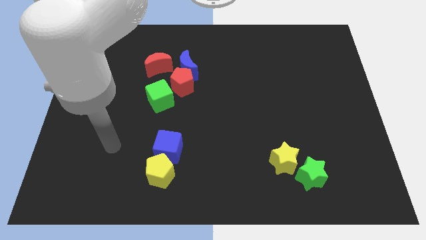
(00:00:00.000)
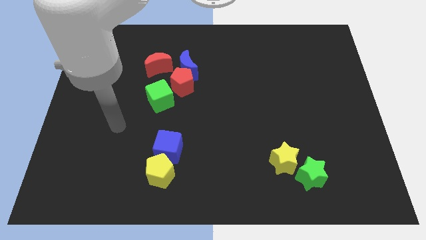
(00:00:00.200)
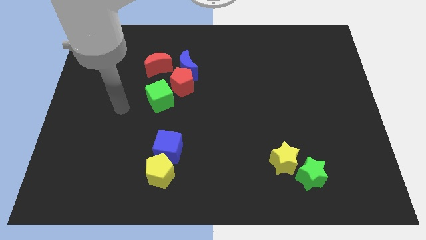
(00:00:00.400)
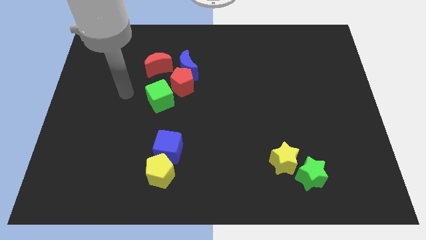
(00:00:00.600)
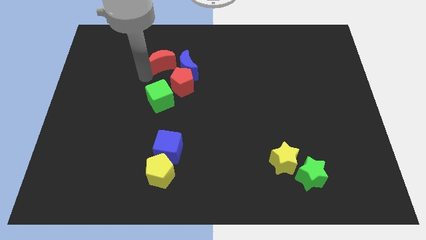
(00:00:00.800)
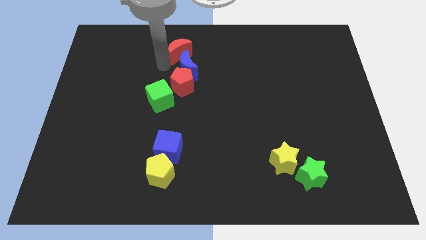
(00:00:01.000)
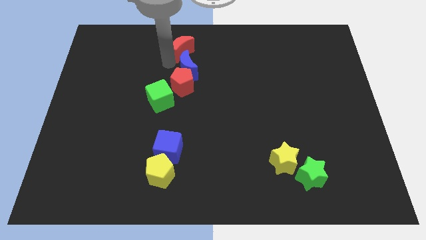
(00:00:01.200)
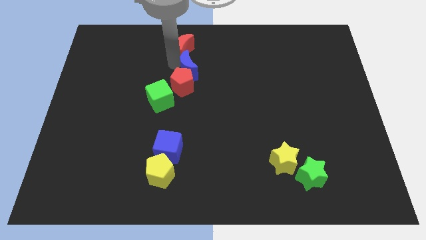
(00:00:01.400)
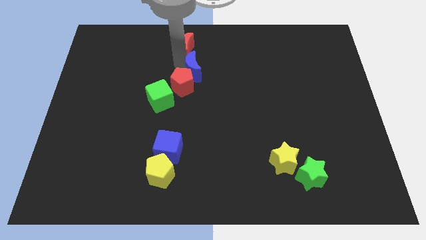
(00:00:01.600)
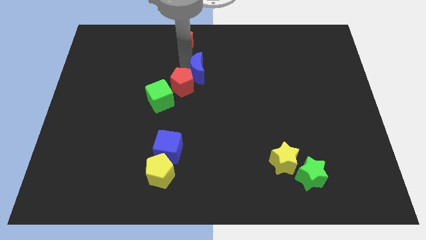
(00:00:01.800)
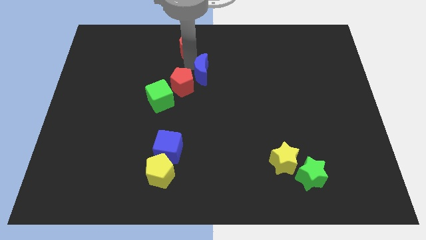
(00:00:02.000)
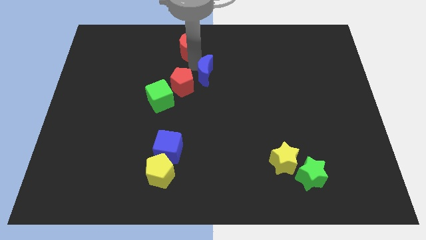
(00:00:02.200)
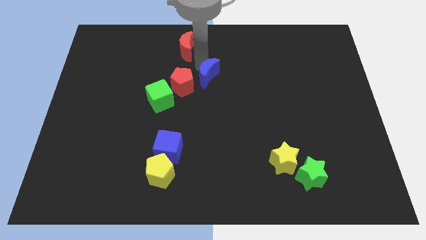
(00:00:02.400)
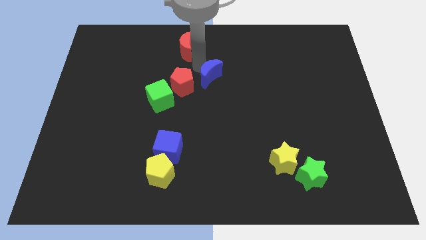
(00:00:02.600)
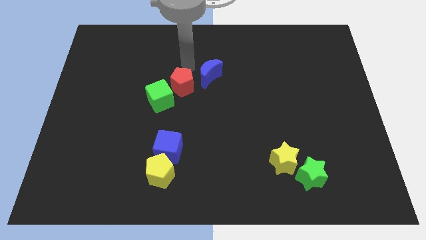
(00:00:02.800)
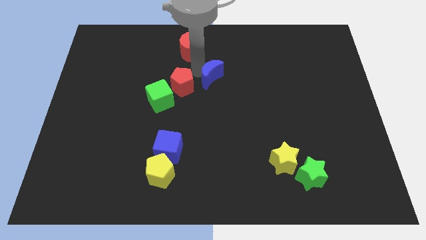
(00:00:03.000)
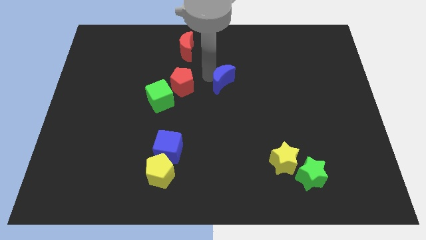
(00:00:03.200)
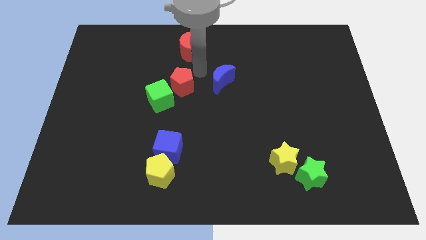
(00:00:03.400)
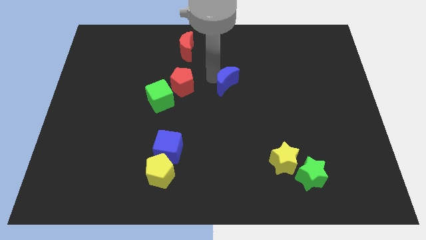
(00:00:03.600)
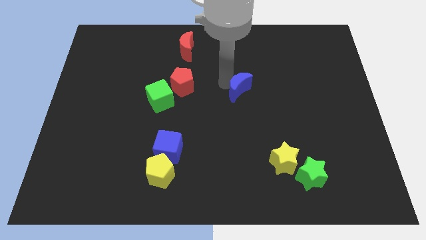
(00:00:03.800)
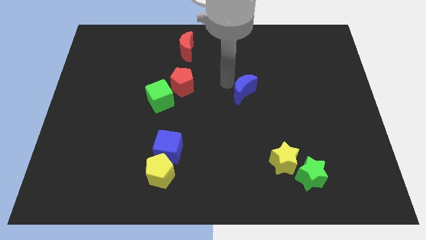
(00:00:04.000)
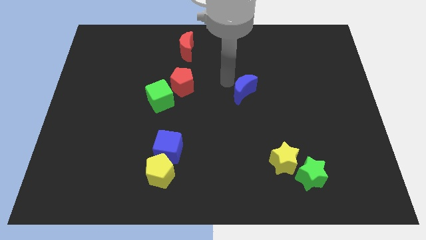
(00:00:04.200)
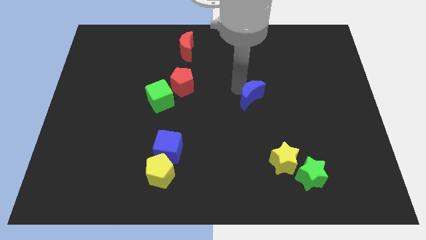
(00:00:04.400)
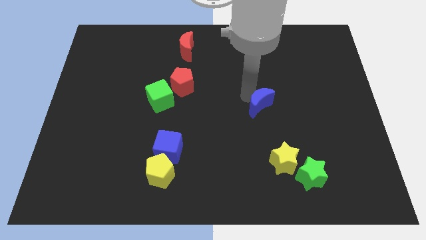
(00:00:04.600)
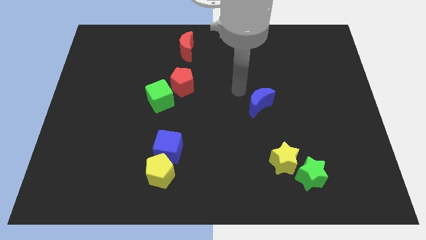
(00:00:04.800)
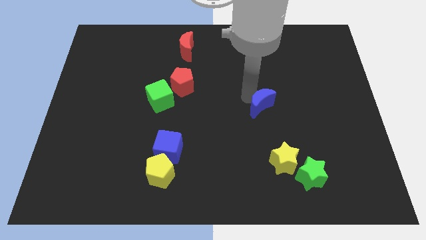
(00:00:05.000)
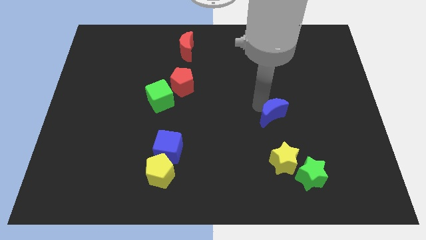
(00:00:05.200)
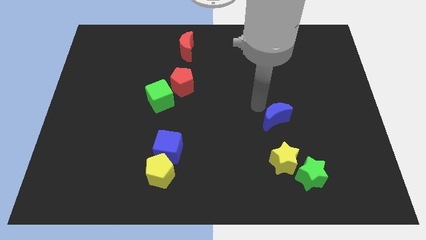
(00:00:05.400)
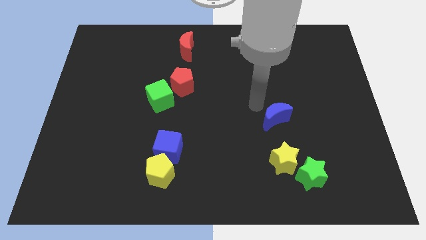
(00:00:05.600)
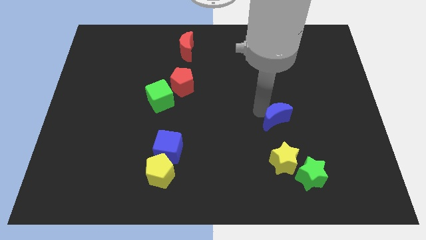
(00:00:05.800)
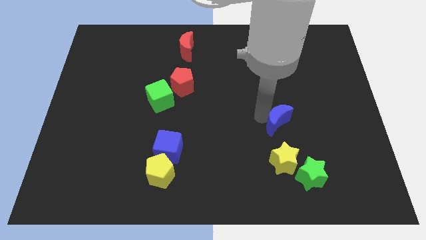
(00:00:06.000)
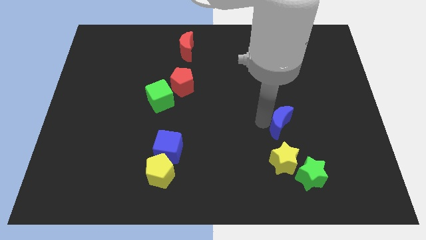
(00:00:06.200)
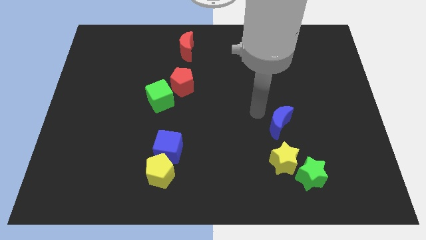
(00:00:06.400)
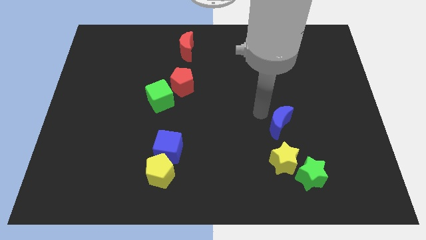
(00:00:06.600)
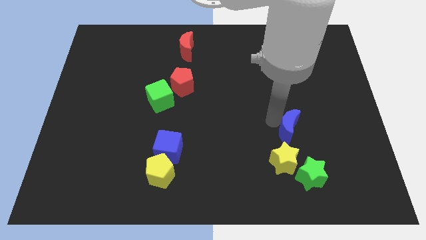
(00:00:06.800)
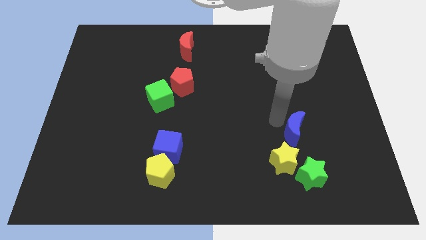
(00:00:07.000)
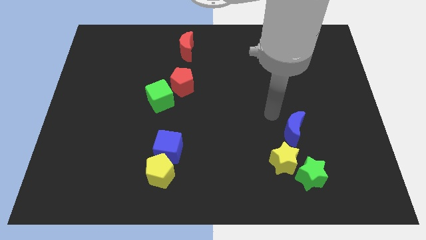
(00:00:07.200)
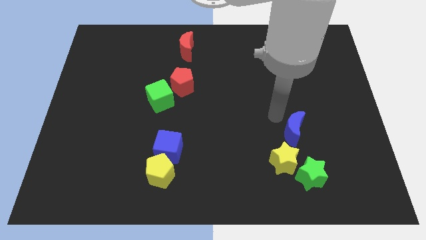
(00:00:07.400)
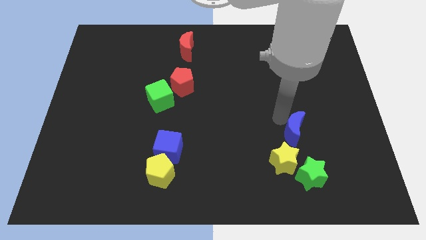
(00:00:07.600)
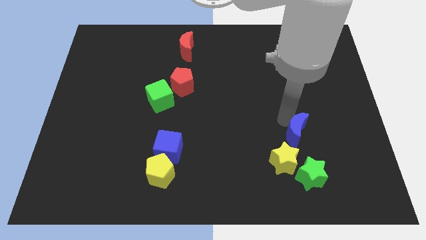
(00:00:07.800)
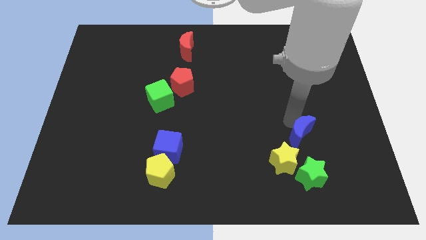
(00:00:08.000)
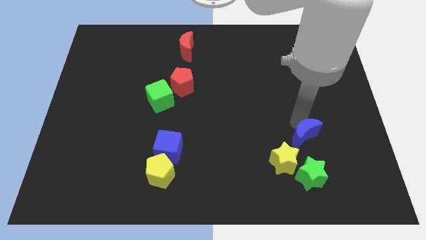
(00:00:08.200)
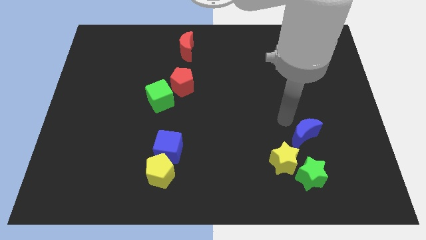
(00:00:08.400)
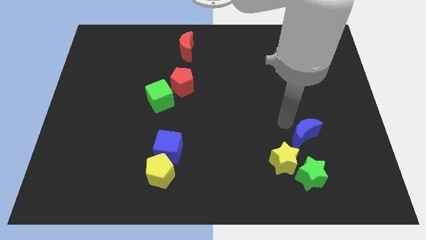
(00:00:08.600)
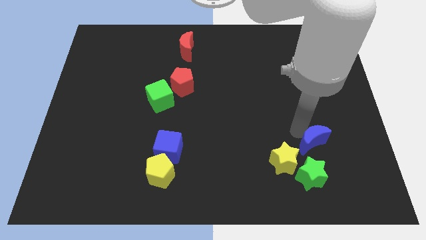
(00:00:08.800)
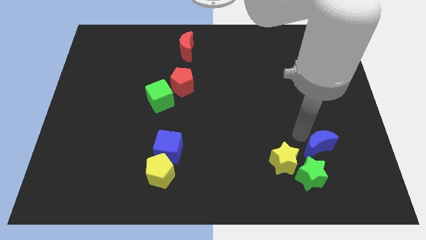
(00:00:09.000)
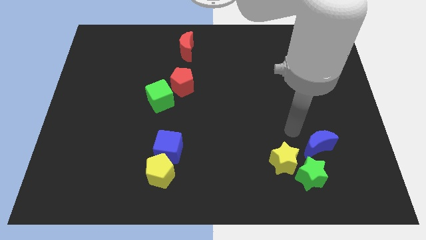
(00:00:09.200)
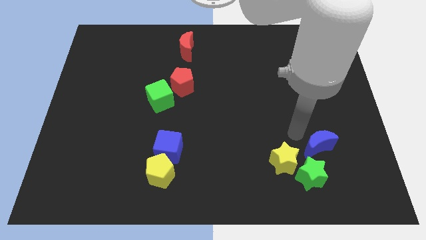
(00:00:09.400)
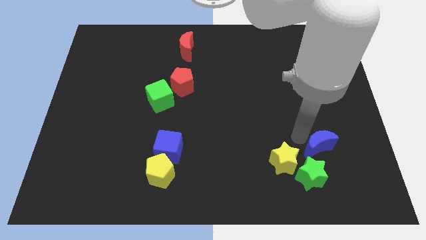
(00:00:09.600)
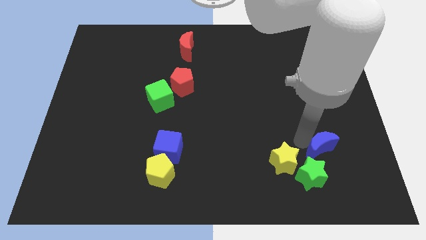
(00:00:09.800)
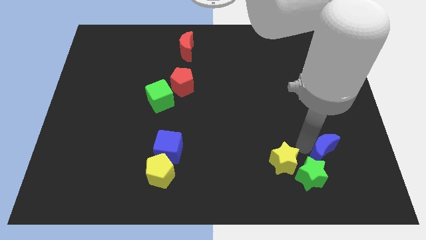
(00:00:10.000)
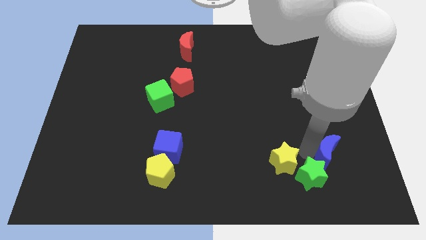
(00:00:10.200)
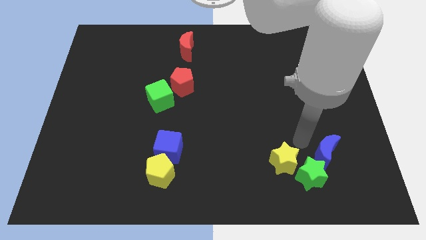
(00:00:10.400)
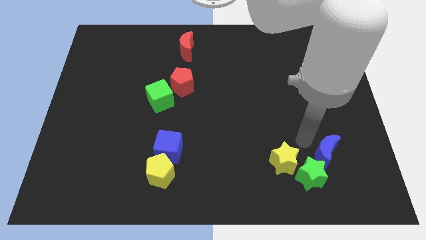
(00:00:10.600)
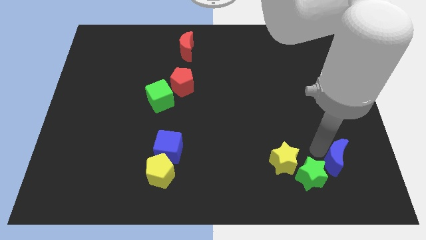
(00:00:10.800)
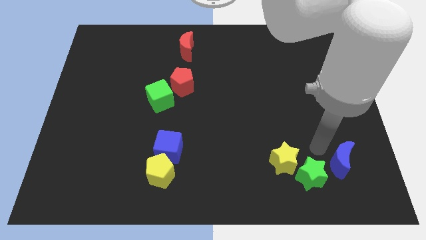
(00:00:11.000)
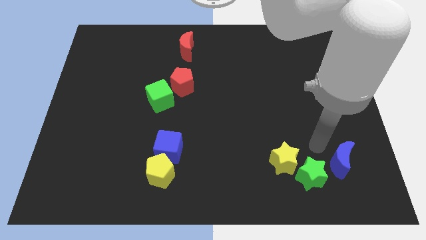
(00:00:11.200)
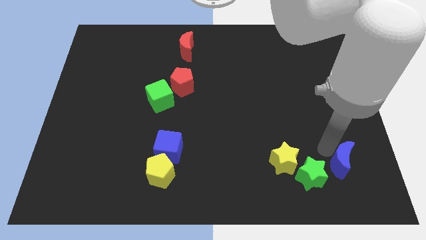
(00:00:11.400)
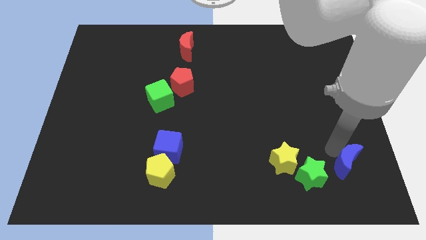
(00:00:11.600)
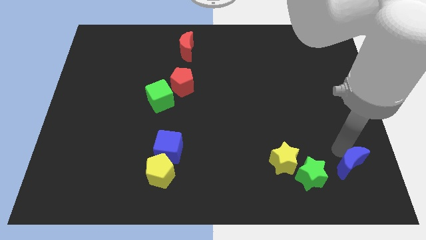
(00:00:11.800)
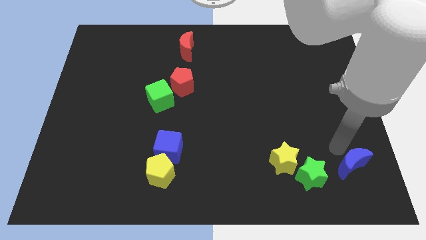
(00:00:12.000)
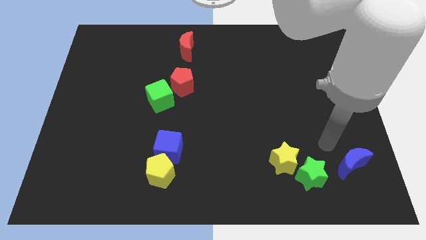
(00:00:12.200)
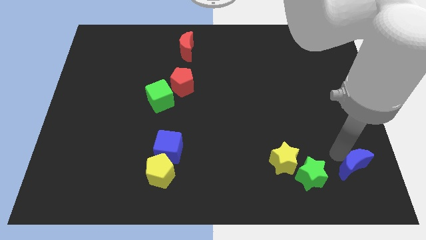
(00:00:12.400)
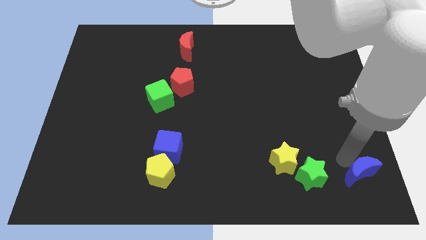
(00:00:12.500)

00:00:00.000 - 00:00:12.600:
push the blue moon to the bottom right corner
